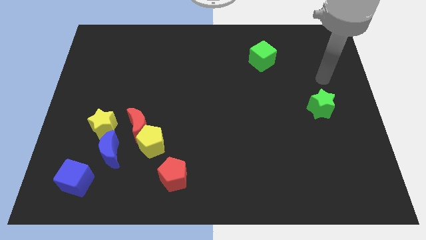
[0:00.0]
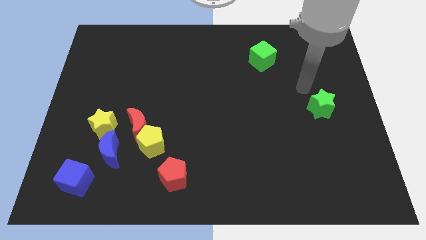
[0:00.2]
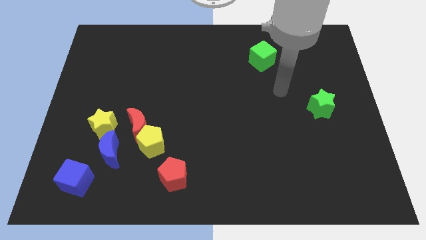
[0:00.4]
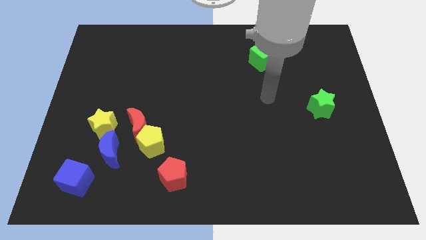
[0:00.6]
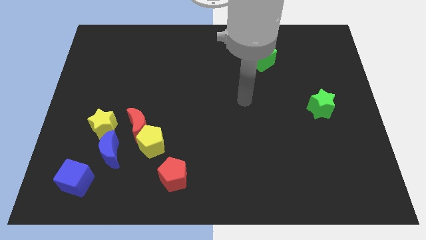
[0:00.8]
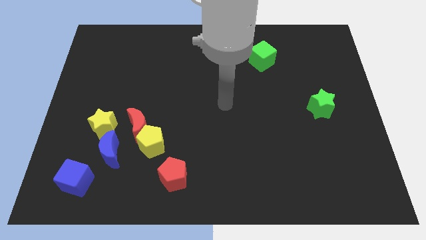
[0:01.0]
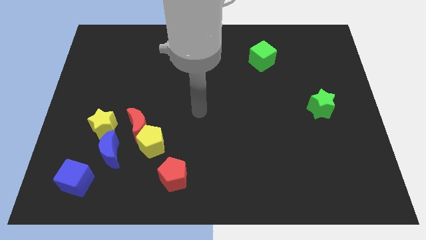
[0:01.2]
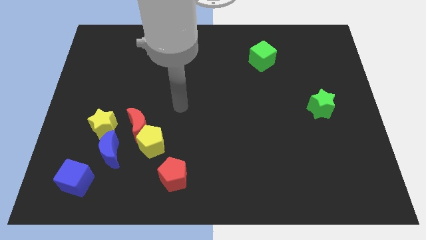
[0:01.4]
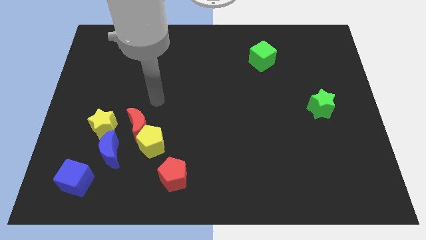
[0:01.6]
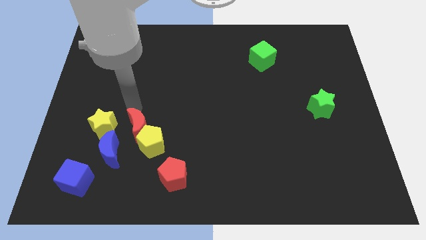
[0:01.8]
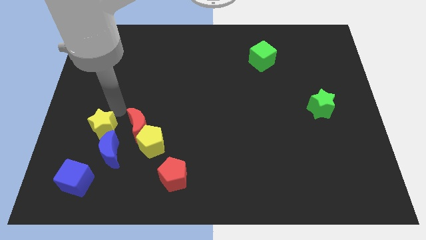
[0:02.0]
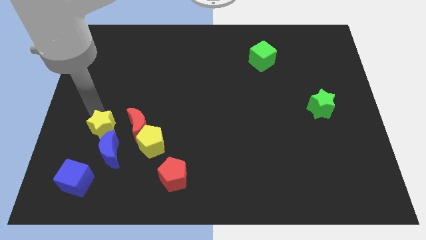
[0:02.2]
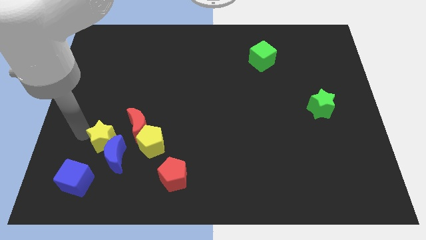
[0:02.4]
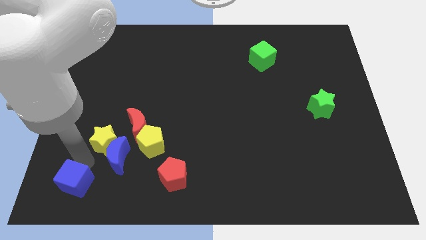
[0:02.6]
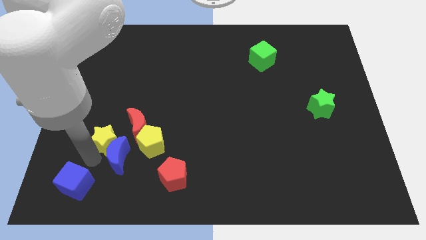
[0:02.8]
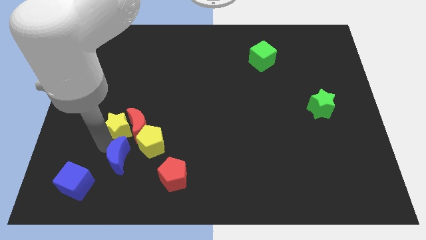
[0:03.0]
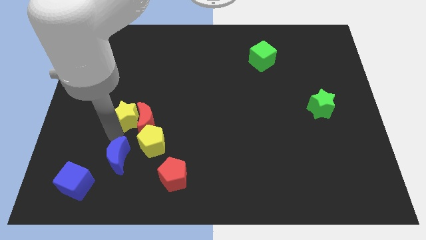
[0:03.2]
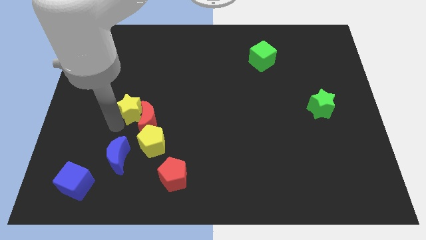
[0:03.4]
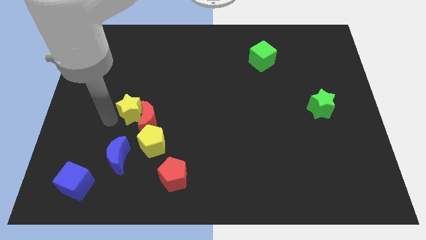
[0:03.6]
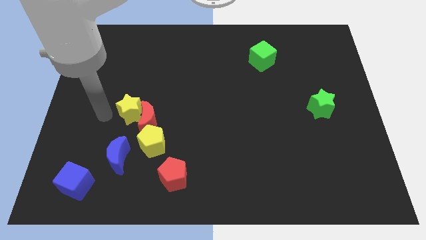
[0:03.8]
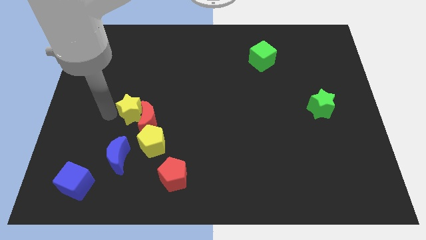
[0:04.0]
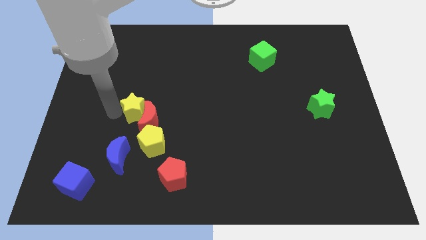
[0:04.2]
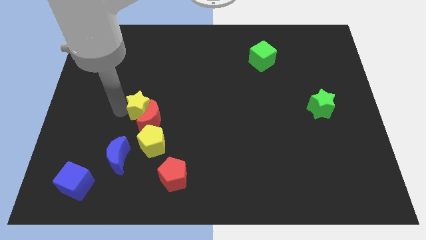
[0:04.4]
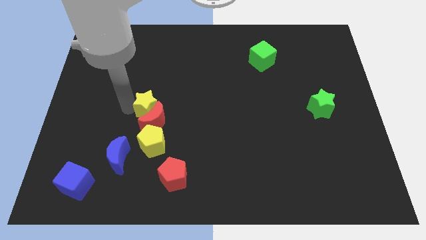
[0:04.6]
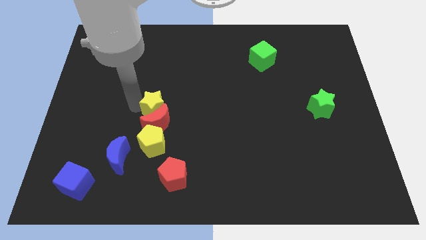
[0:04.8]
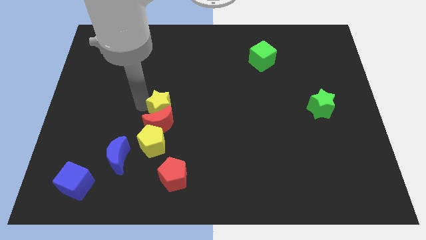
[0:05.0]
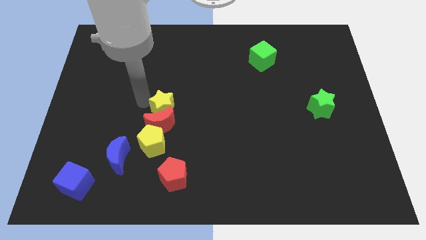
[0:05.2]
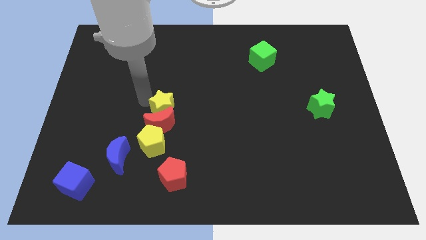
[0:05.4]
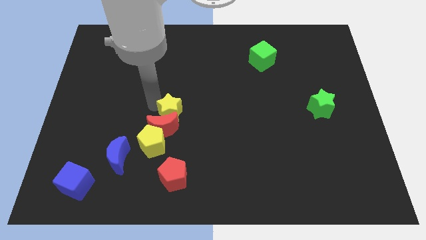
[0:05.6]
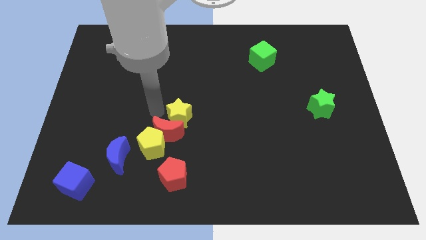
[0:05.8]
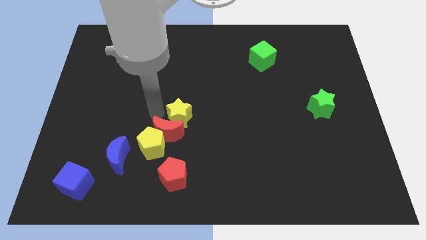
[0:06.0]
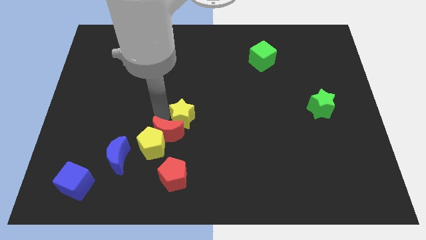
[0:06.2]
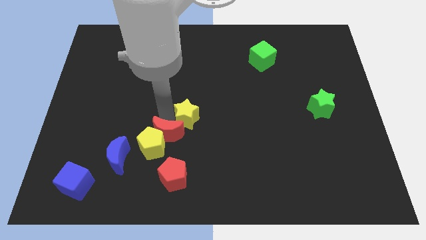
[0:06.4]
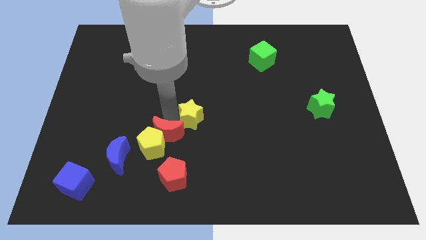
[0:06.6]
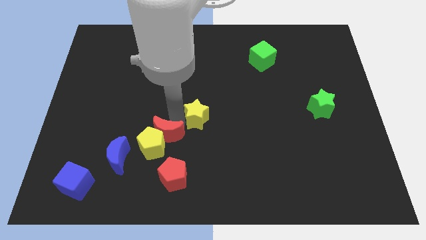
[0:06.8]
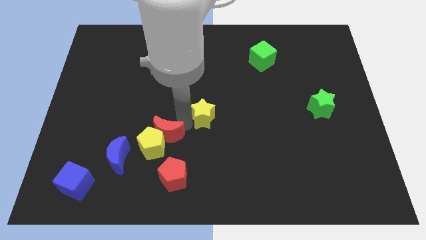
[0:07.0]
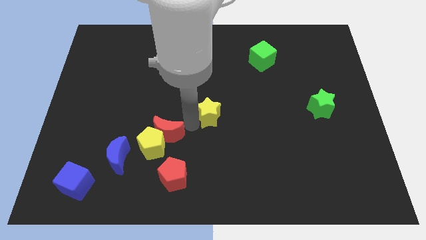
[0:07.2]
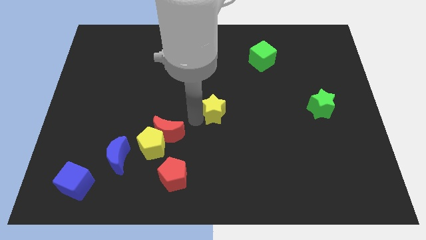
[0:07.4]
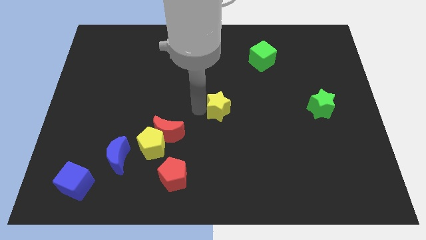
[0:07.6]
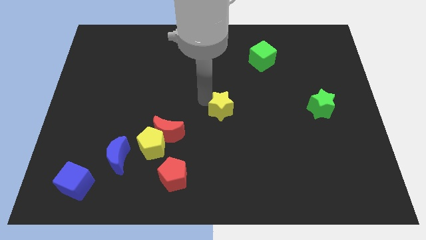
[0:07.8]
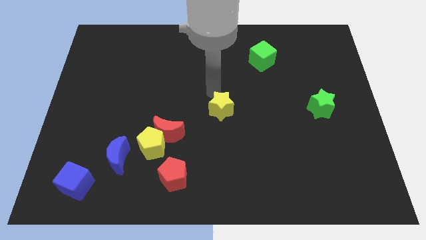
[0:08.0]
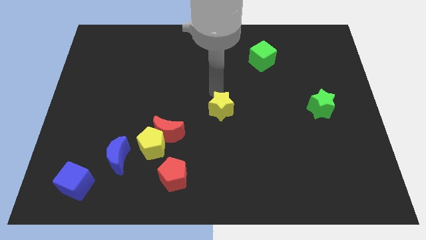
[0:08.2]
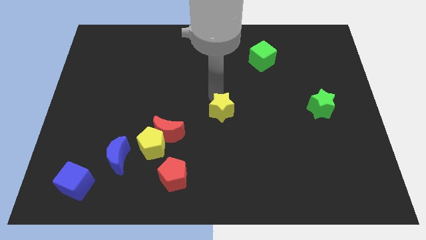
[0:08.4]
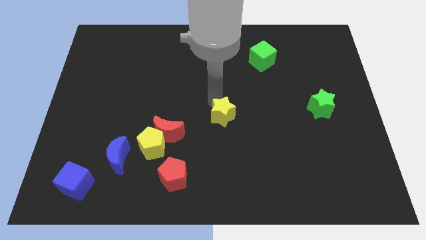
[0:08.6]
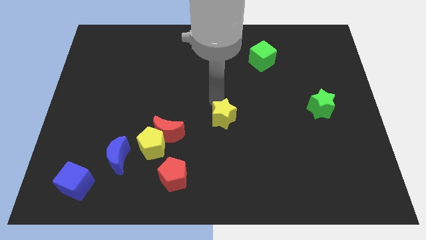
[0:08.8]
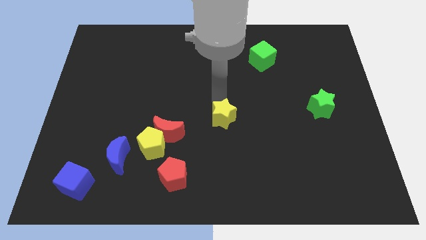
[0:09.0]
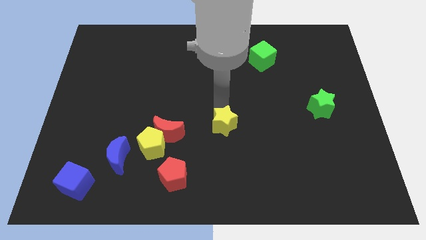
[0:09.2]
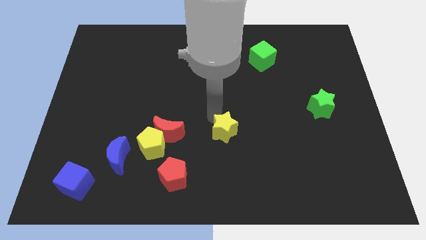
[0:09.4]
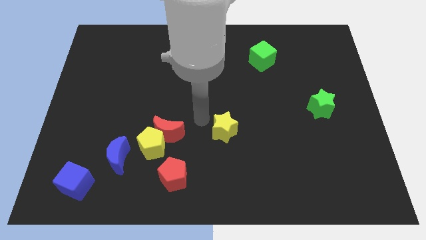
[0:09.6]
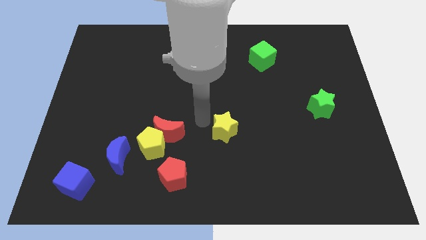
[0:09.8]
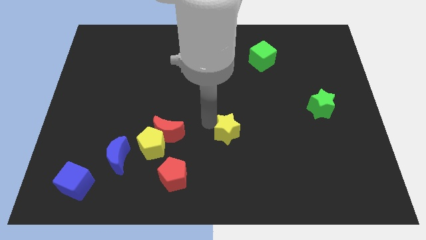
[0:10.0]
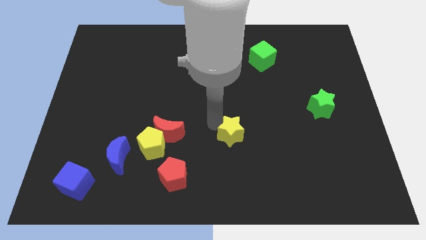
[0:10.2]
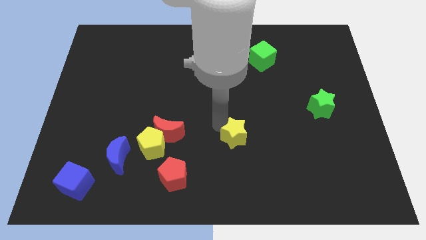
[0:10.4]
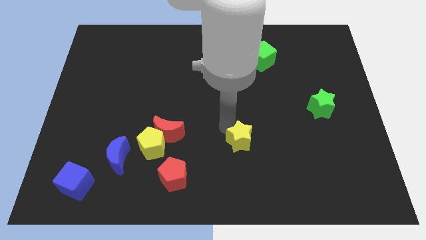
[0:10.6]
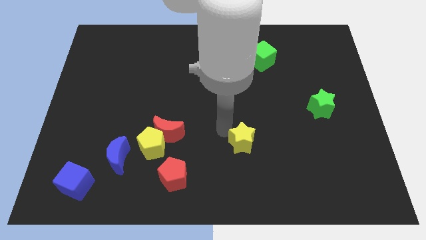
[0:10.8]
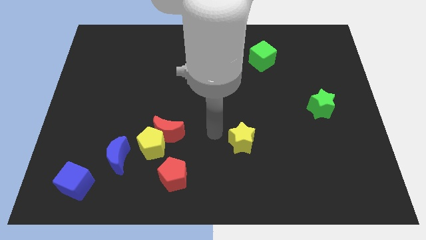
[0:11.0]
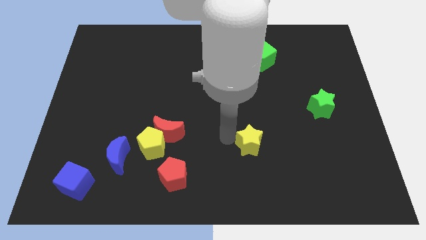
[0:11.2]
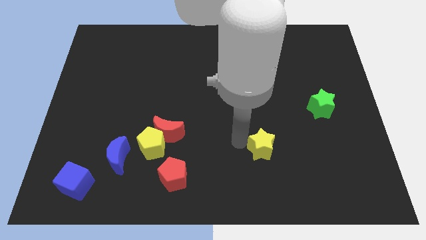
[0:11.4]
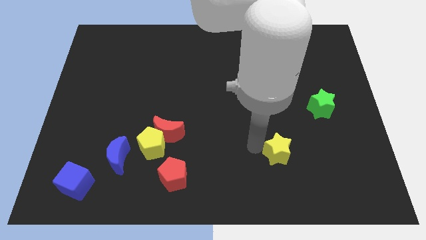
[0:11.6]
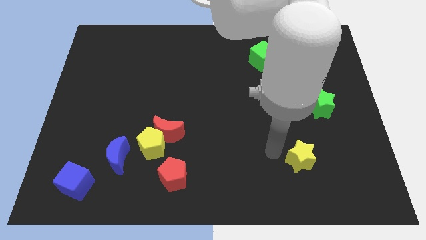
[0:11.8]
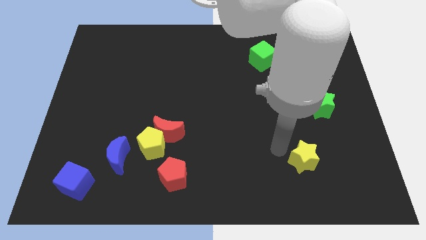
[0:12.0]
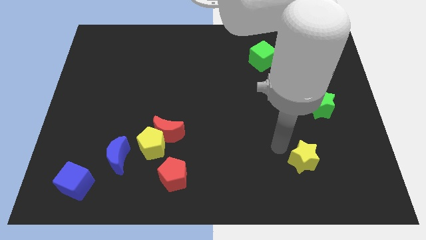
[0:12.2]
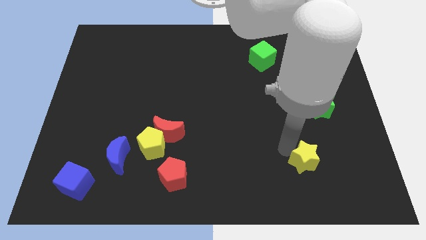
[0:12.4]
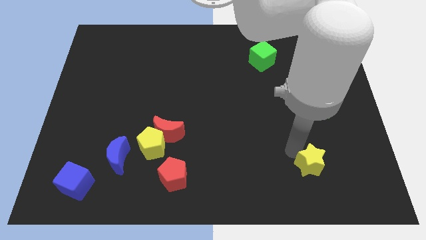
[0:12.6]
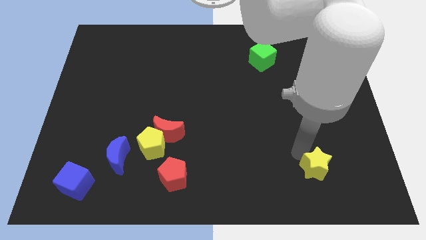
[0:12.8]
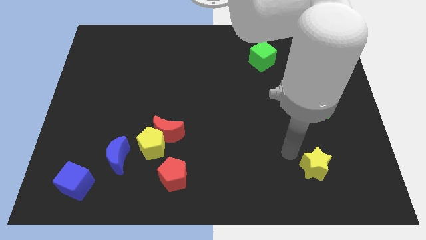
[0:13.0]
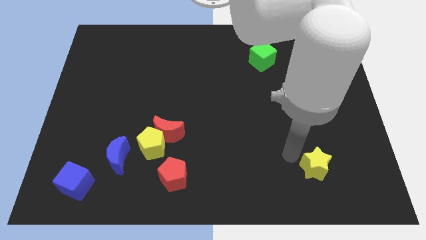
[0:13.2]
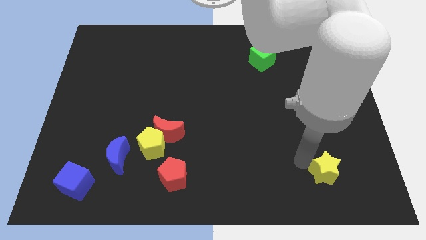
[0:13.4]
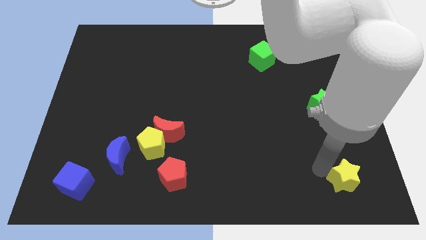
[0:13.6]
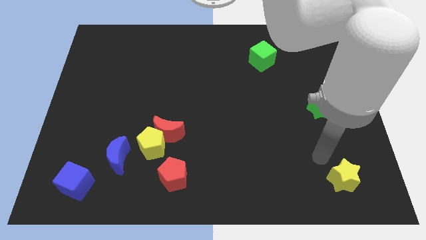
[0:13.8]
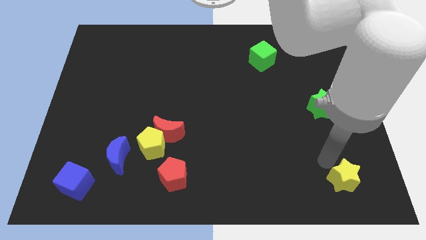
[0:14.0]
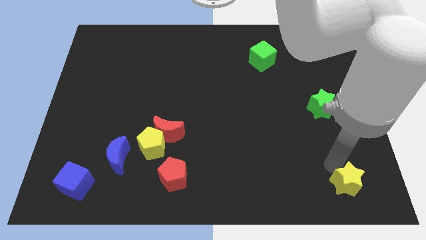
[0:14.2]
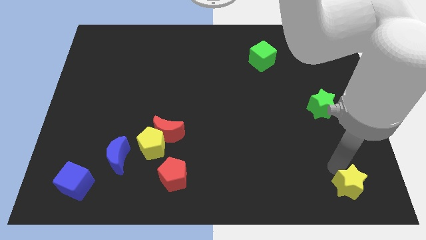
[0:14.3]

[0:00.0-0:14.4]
put the yellow star to the bottom right corner
